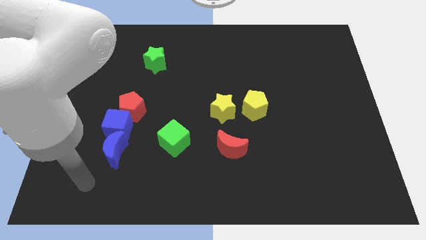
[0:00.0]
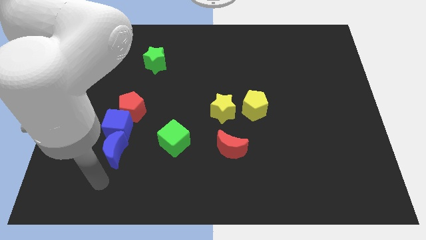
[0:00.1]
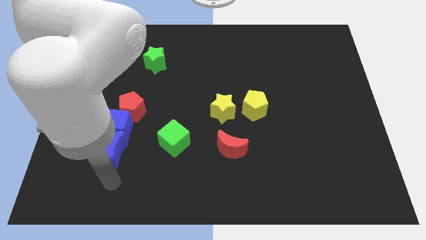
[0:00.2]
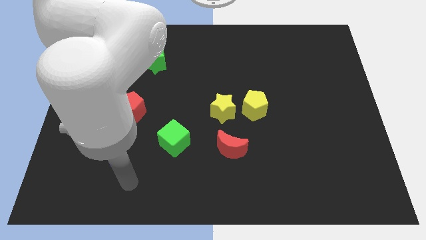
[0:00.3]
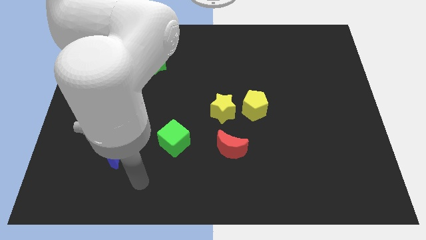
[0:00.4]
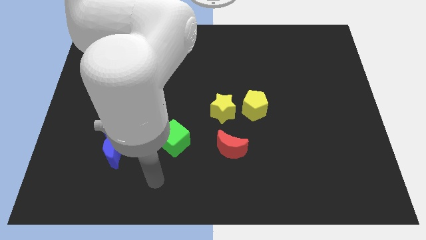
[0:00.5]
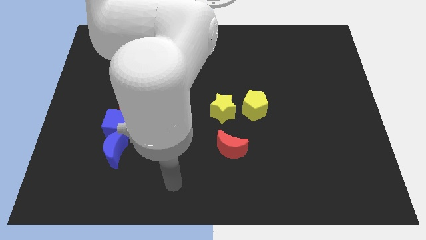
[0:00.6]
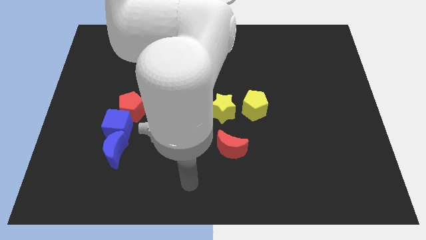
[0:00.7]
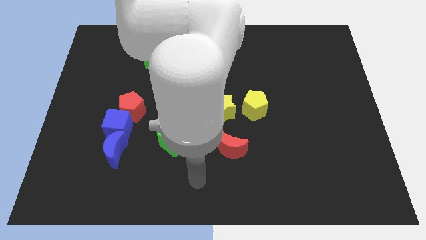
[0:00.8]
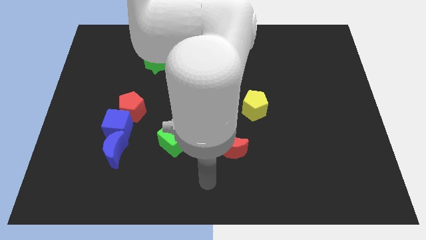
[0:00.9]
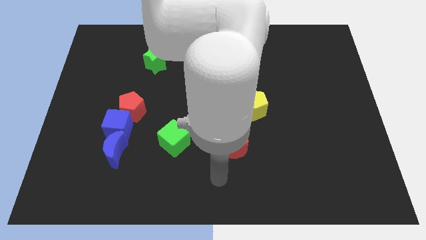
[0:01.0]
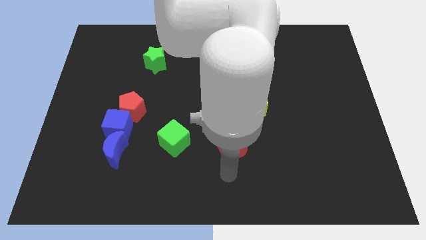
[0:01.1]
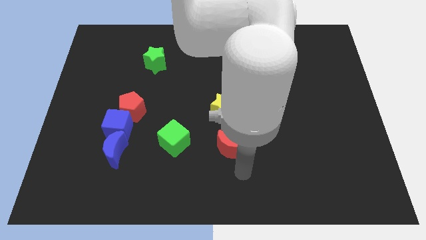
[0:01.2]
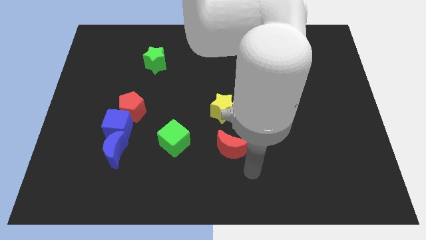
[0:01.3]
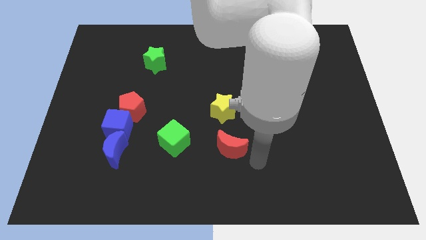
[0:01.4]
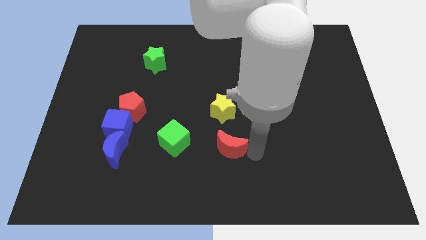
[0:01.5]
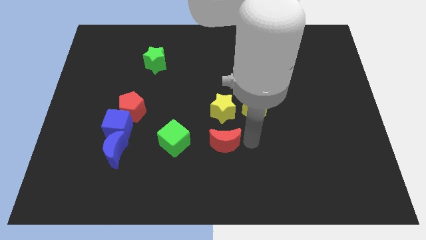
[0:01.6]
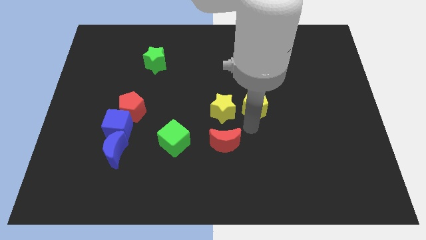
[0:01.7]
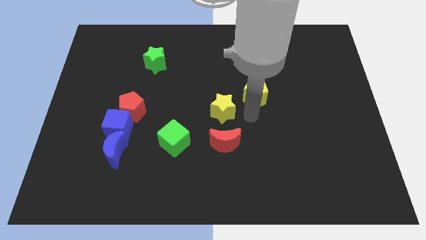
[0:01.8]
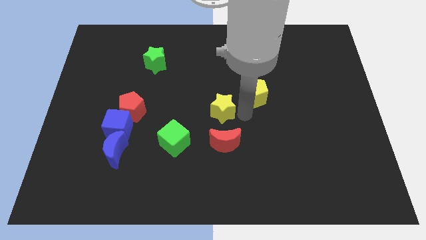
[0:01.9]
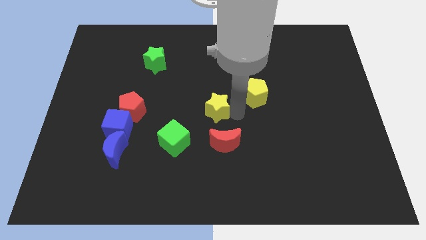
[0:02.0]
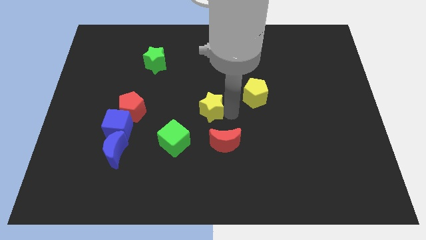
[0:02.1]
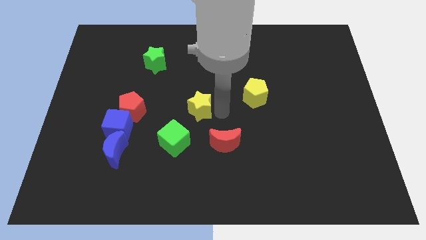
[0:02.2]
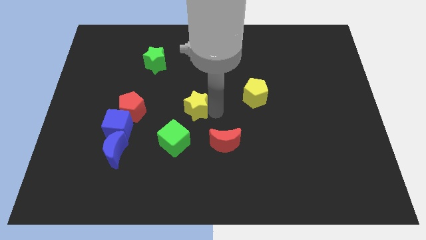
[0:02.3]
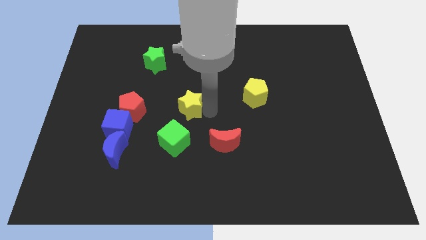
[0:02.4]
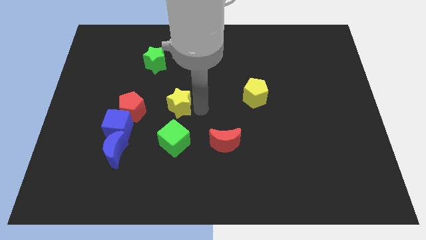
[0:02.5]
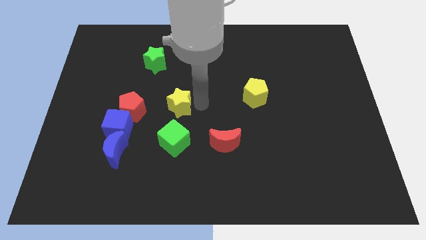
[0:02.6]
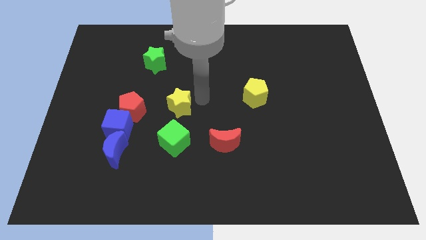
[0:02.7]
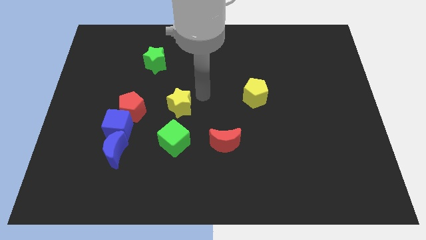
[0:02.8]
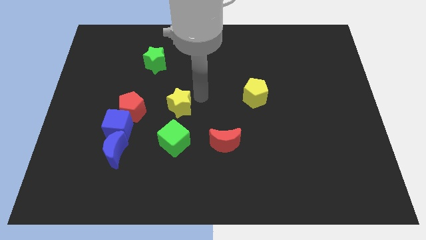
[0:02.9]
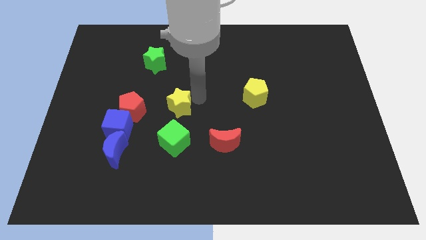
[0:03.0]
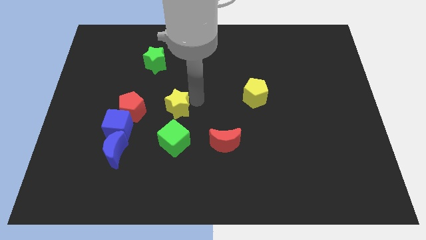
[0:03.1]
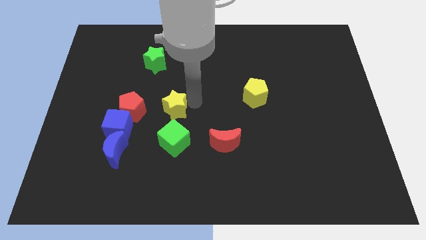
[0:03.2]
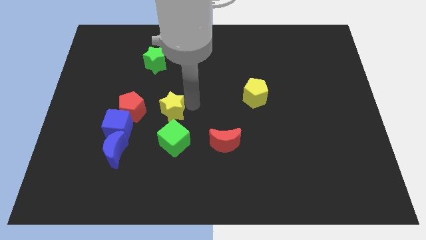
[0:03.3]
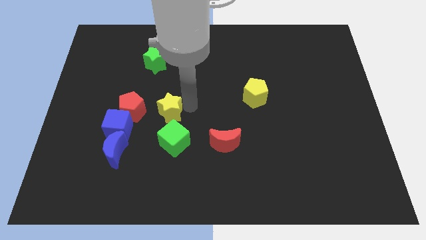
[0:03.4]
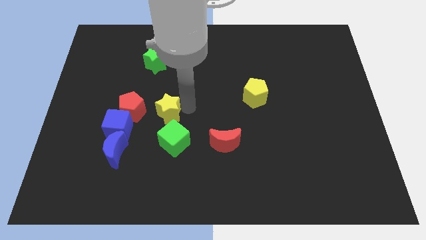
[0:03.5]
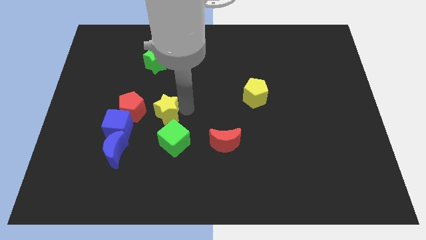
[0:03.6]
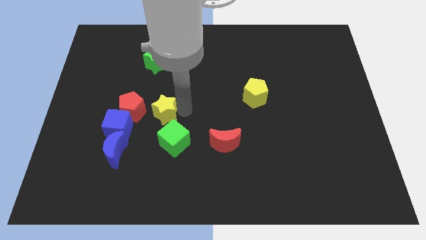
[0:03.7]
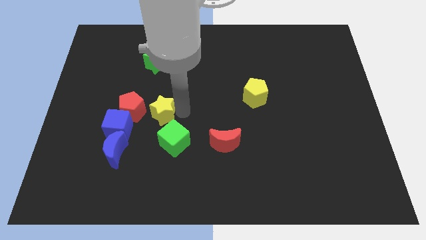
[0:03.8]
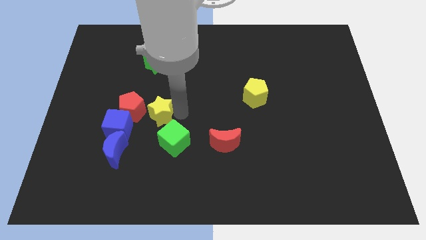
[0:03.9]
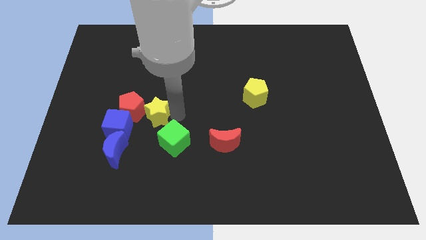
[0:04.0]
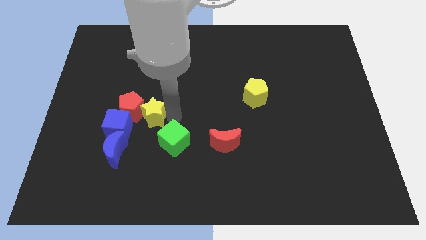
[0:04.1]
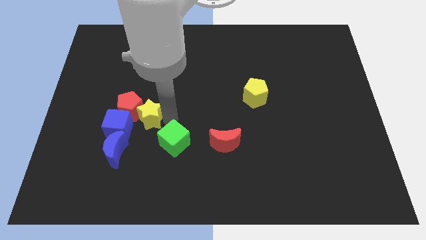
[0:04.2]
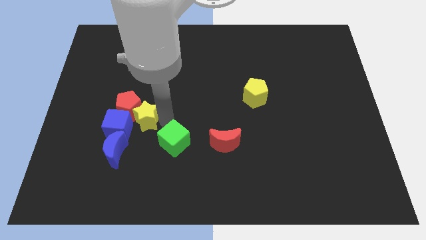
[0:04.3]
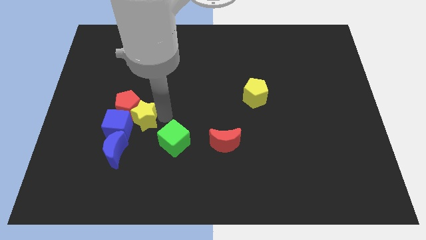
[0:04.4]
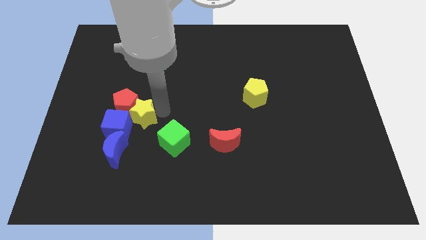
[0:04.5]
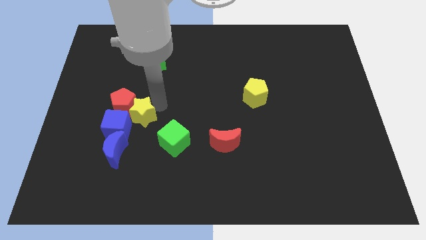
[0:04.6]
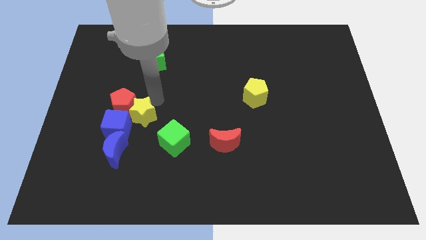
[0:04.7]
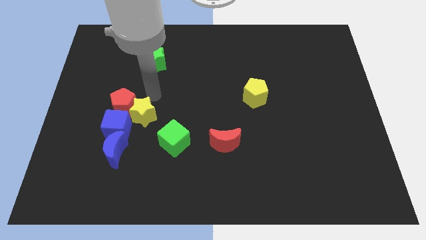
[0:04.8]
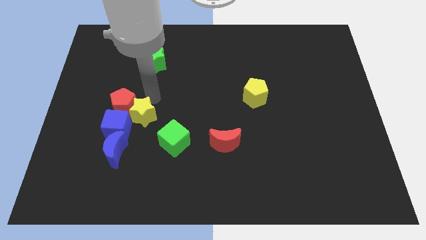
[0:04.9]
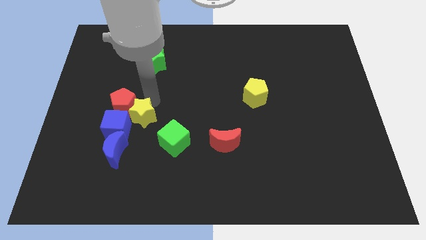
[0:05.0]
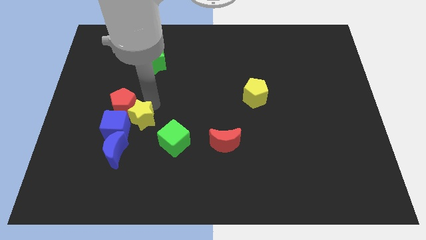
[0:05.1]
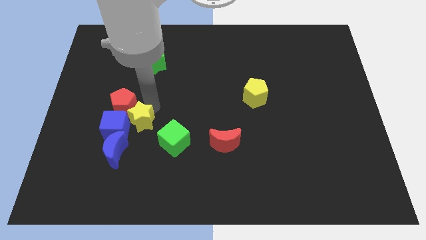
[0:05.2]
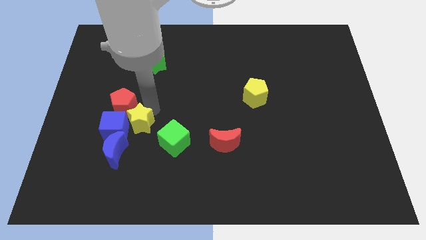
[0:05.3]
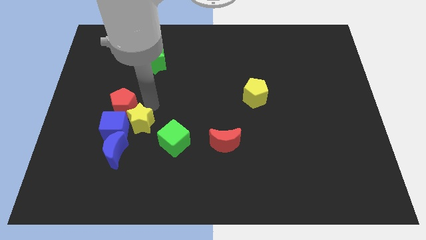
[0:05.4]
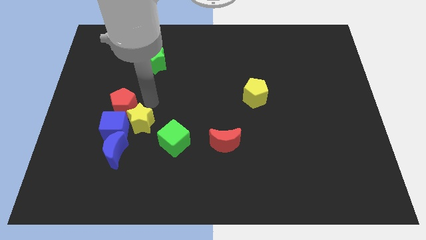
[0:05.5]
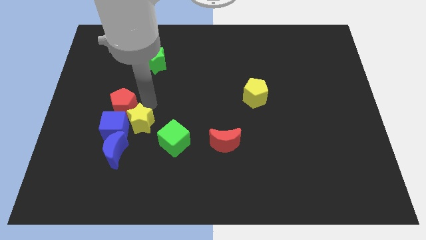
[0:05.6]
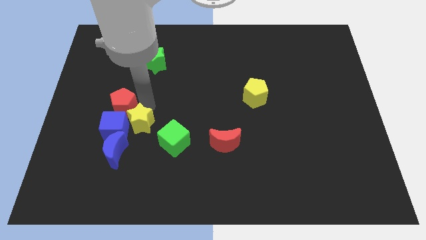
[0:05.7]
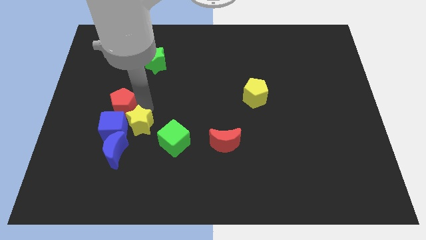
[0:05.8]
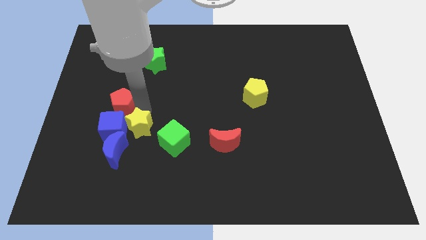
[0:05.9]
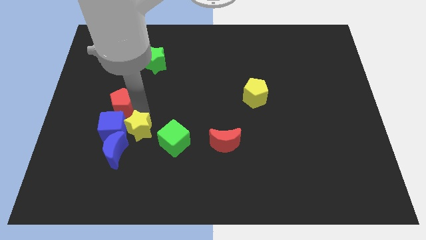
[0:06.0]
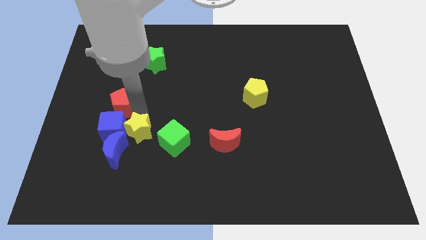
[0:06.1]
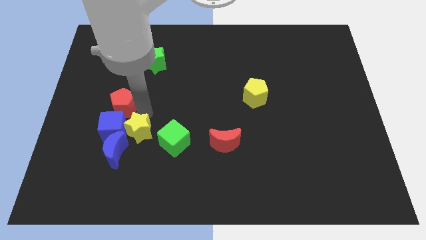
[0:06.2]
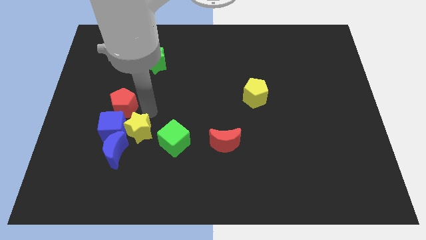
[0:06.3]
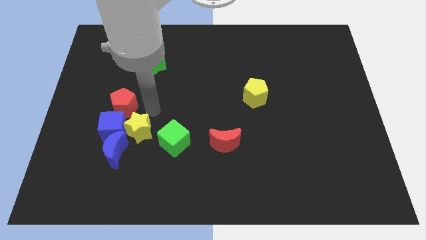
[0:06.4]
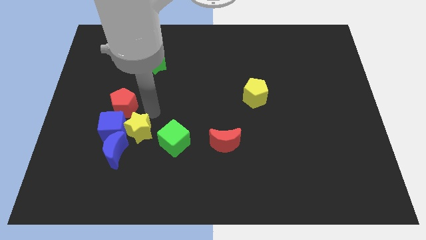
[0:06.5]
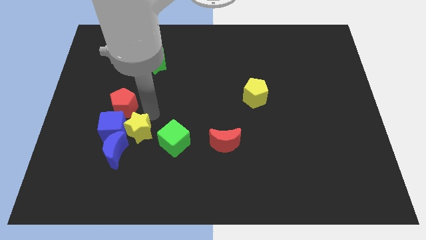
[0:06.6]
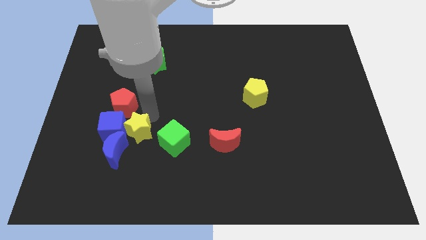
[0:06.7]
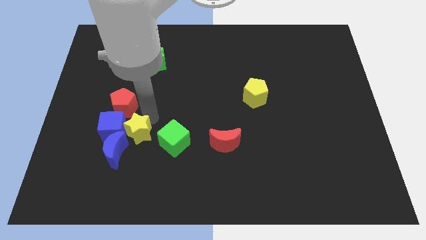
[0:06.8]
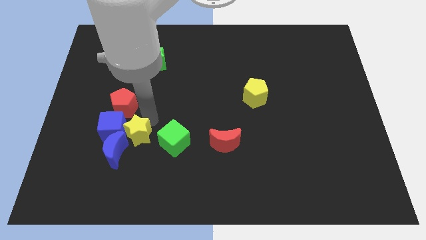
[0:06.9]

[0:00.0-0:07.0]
slide the yellow star towards the blue moon

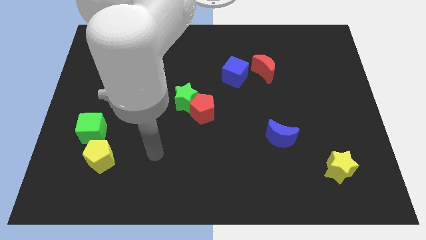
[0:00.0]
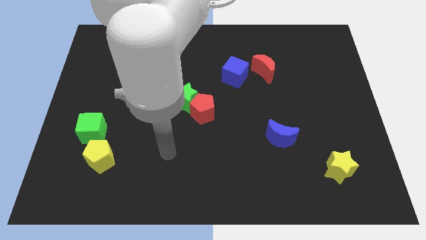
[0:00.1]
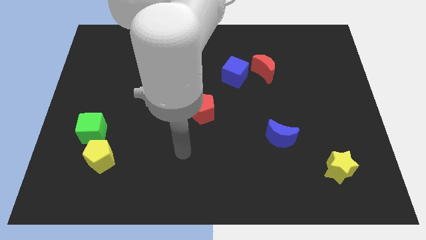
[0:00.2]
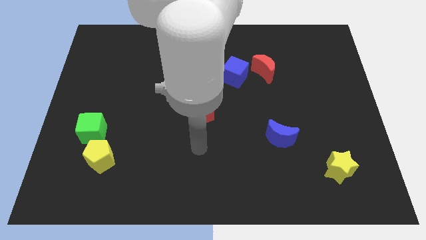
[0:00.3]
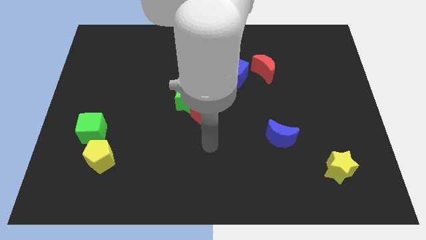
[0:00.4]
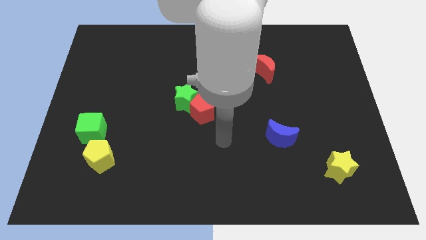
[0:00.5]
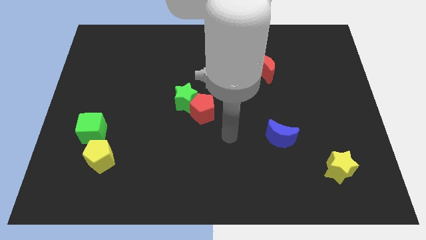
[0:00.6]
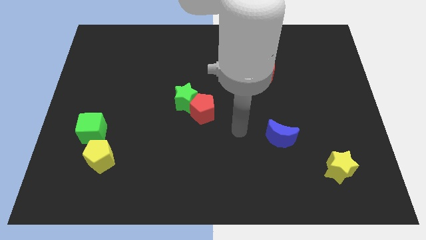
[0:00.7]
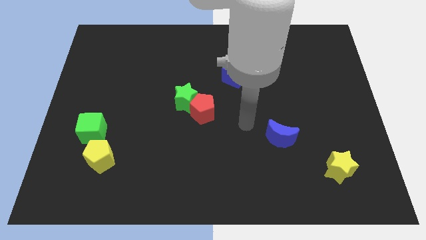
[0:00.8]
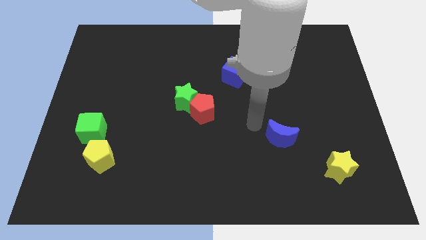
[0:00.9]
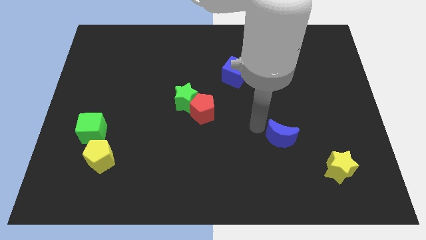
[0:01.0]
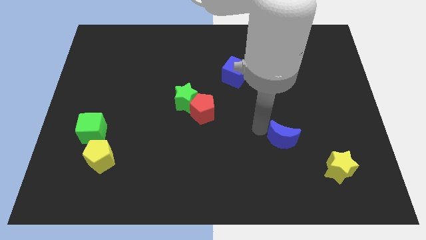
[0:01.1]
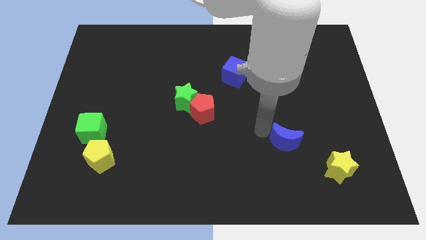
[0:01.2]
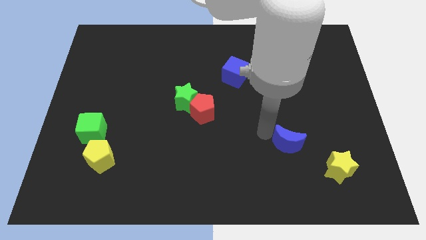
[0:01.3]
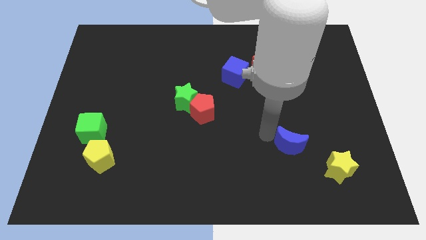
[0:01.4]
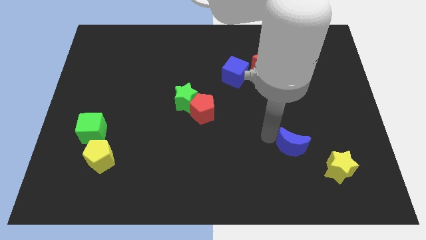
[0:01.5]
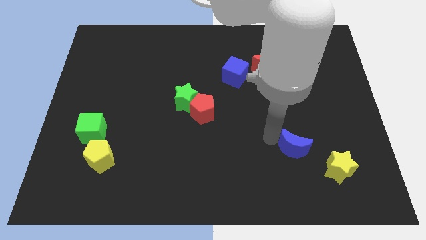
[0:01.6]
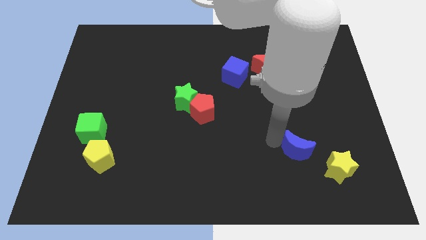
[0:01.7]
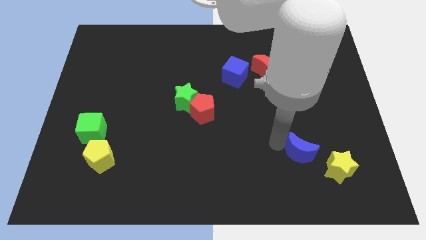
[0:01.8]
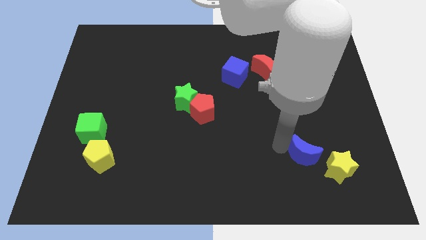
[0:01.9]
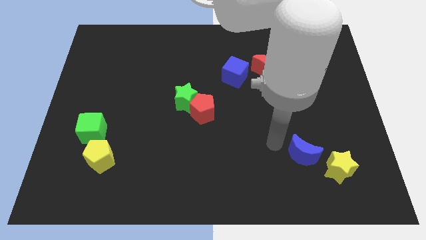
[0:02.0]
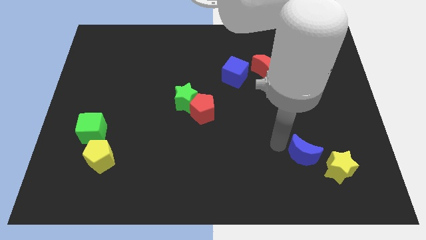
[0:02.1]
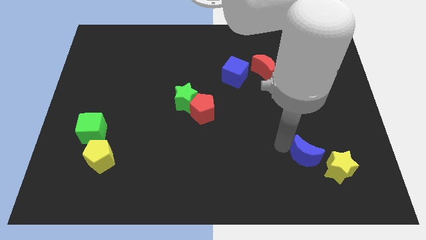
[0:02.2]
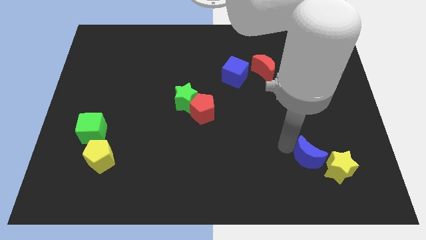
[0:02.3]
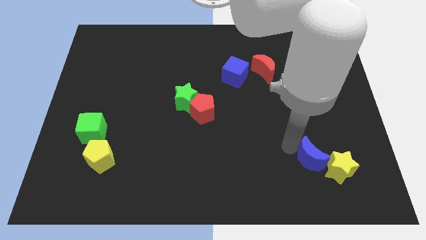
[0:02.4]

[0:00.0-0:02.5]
slide the blue moon close to the yellow star
